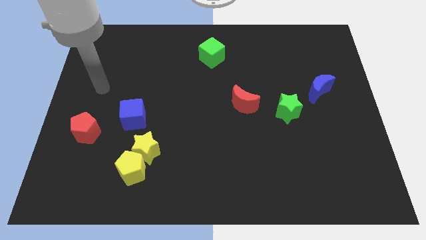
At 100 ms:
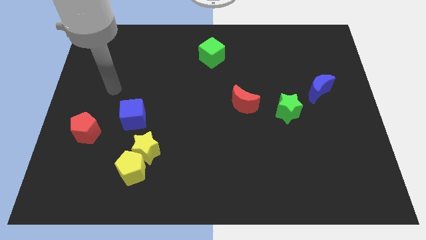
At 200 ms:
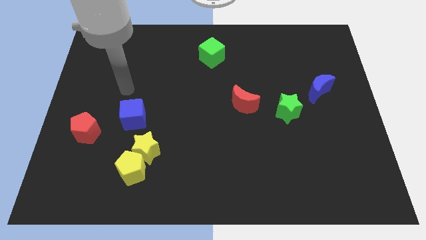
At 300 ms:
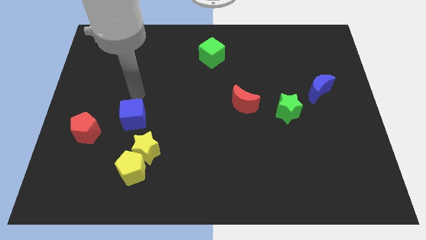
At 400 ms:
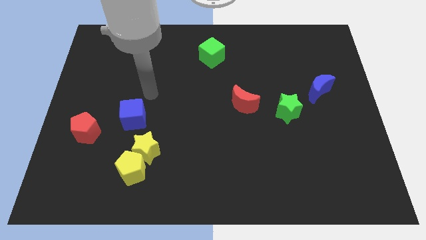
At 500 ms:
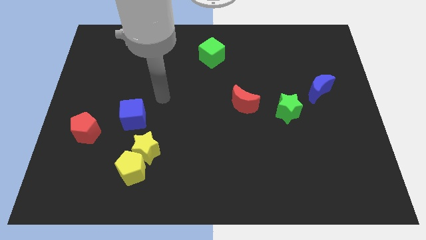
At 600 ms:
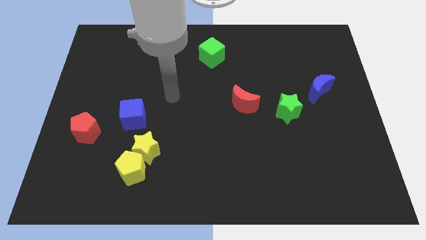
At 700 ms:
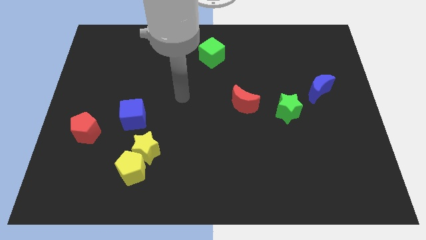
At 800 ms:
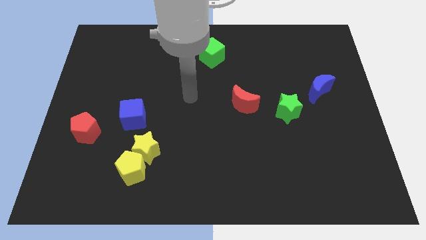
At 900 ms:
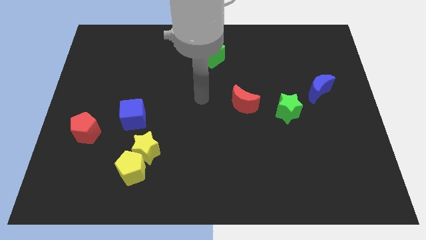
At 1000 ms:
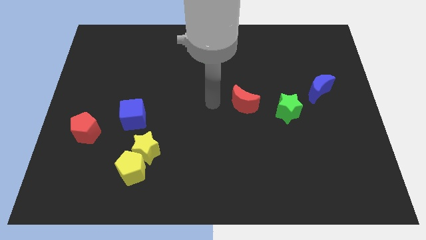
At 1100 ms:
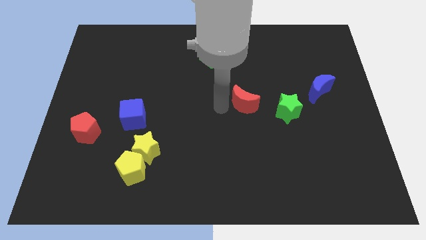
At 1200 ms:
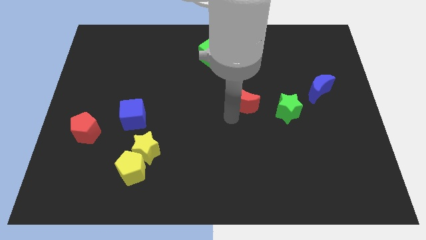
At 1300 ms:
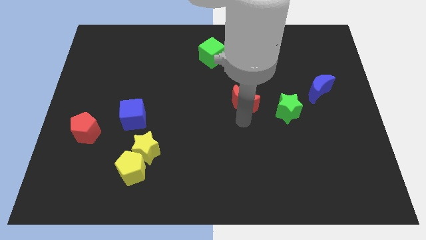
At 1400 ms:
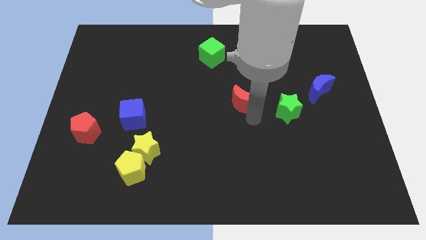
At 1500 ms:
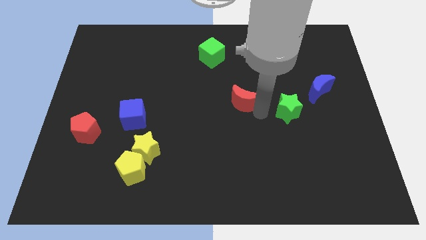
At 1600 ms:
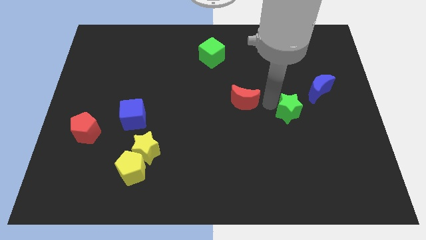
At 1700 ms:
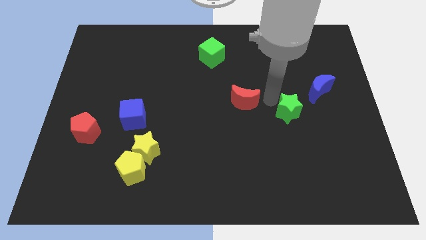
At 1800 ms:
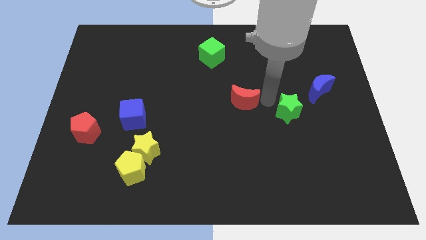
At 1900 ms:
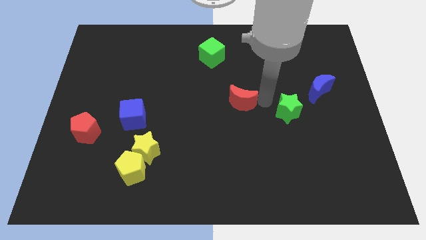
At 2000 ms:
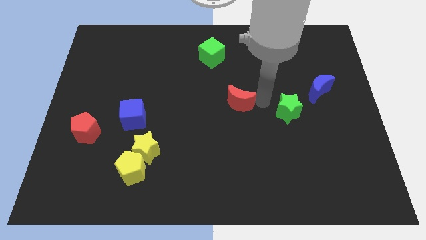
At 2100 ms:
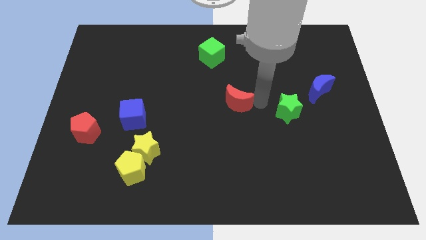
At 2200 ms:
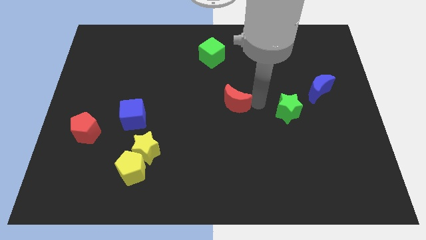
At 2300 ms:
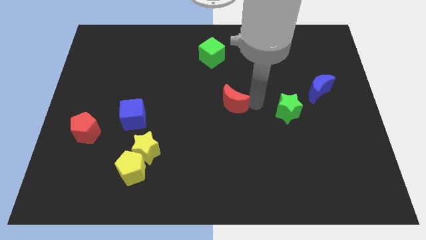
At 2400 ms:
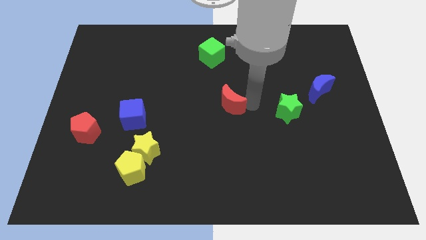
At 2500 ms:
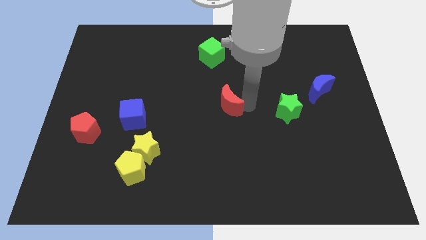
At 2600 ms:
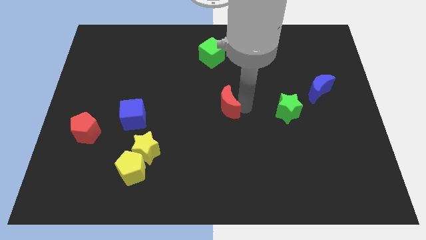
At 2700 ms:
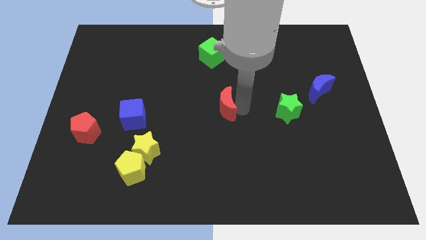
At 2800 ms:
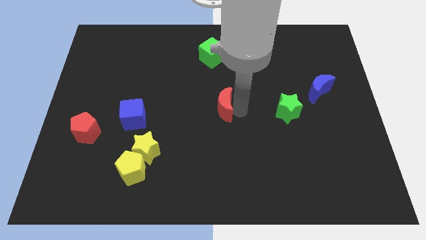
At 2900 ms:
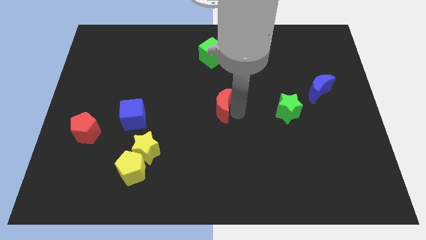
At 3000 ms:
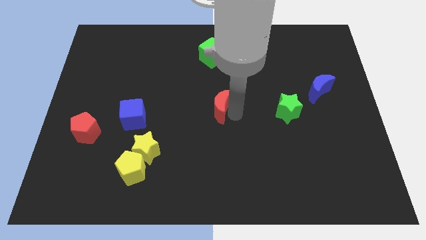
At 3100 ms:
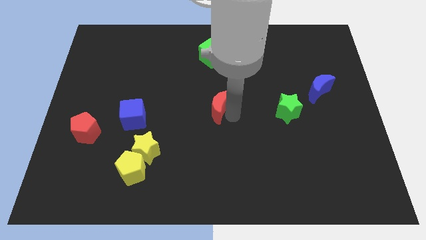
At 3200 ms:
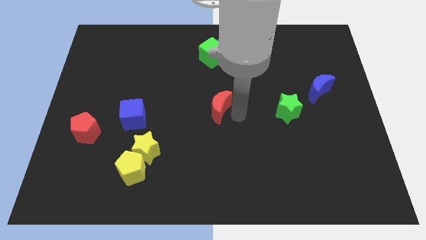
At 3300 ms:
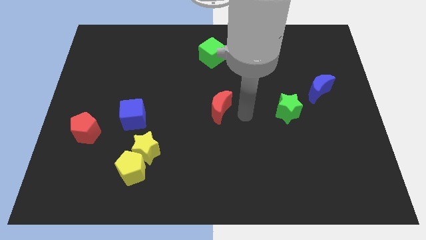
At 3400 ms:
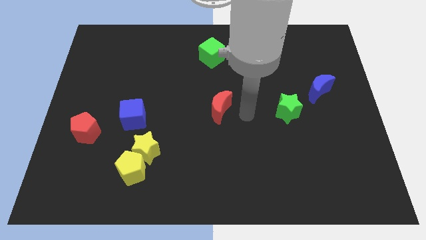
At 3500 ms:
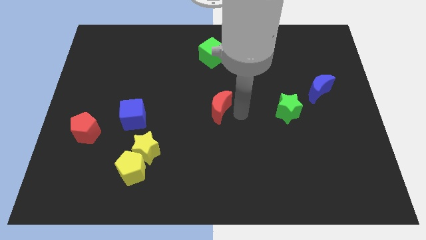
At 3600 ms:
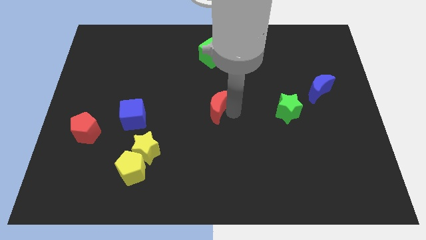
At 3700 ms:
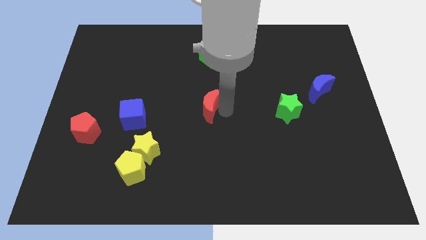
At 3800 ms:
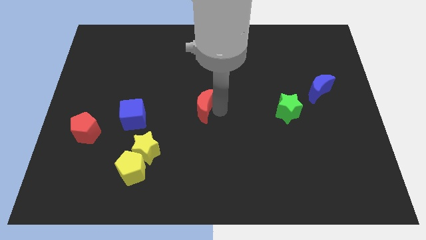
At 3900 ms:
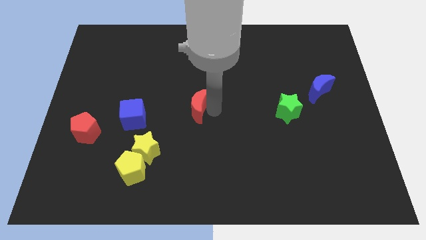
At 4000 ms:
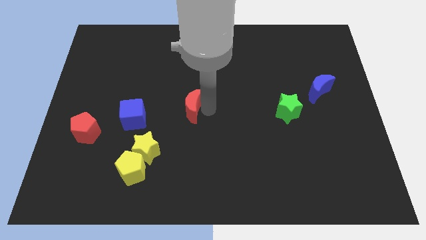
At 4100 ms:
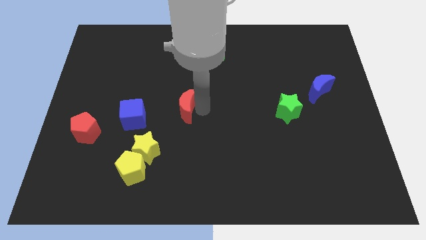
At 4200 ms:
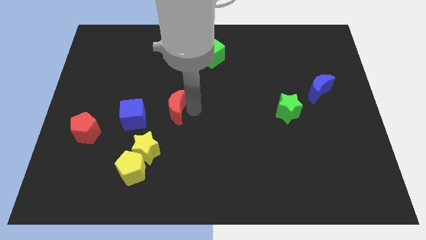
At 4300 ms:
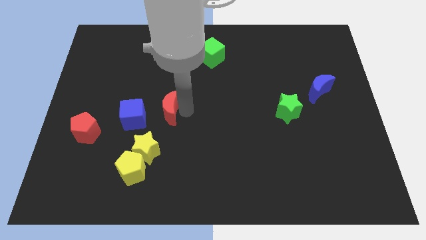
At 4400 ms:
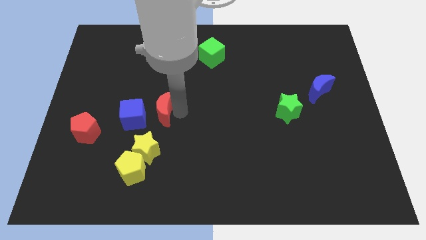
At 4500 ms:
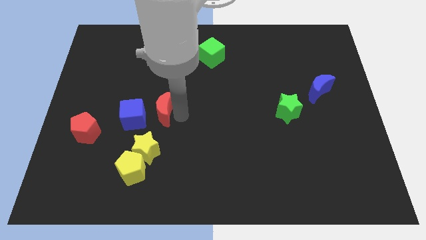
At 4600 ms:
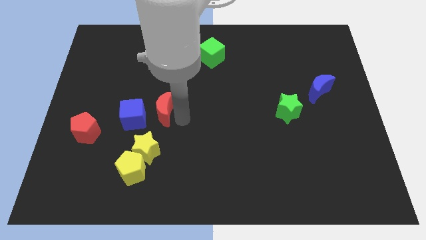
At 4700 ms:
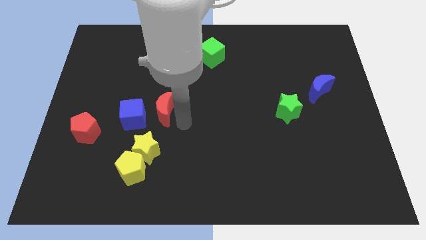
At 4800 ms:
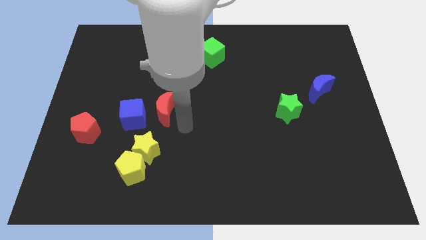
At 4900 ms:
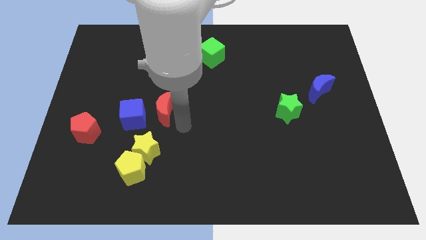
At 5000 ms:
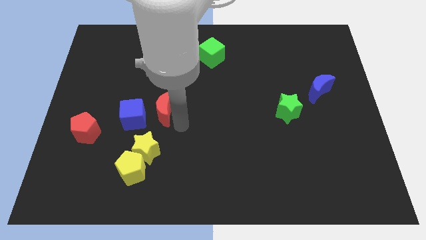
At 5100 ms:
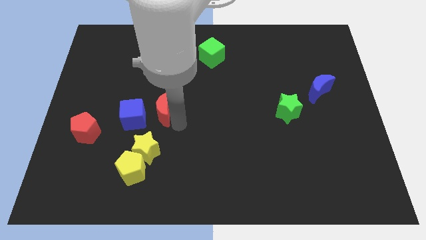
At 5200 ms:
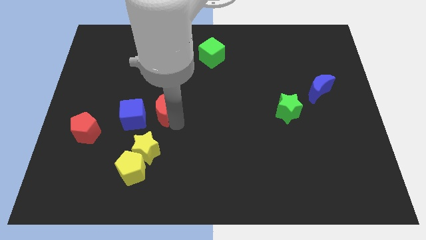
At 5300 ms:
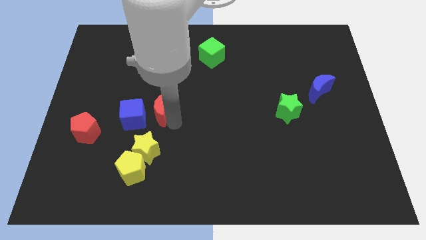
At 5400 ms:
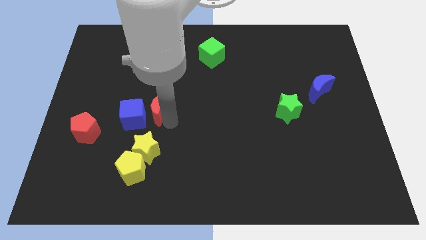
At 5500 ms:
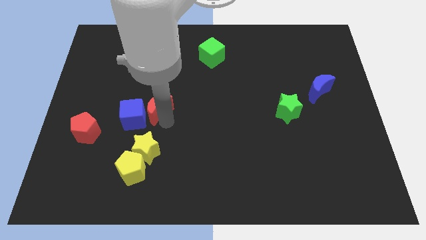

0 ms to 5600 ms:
slide the red moon to the left

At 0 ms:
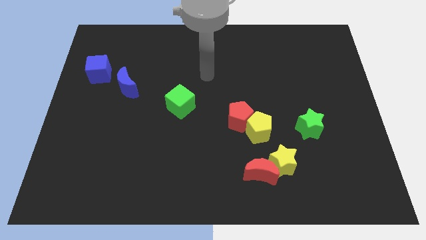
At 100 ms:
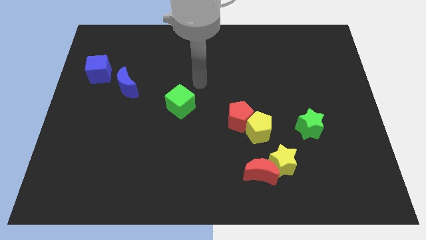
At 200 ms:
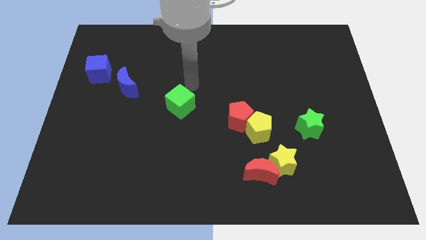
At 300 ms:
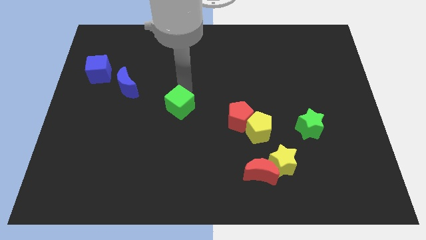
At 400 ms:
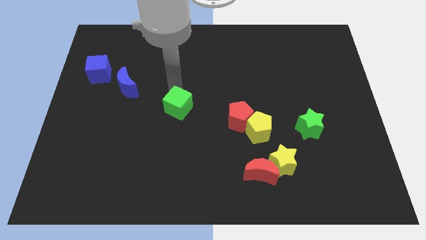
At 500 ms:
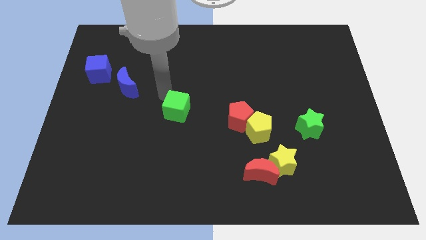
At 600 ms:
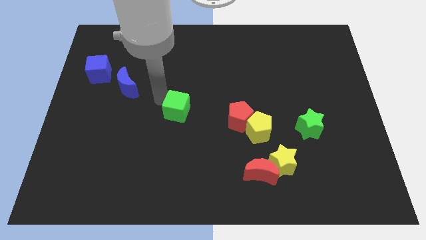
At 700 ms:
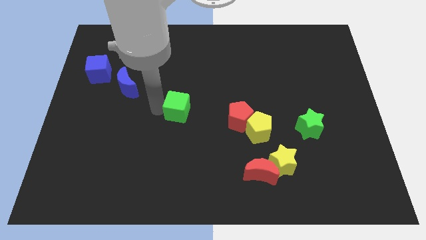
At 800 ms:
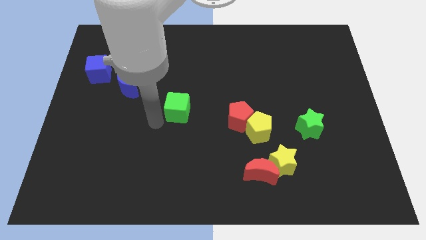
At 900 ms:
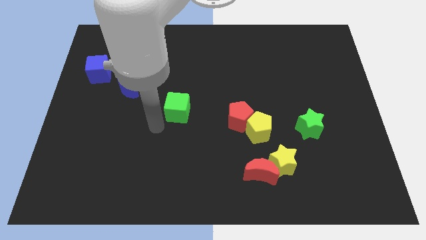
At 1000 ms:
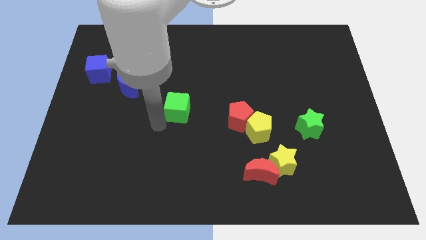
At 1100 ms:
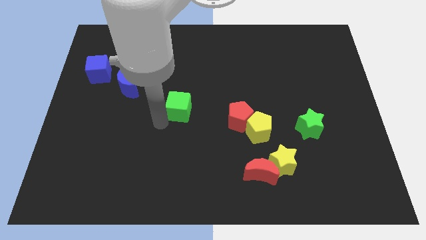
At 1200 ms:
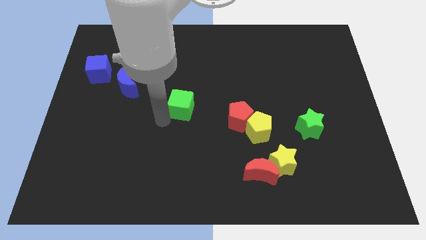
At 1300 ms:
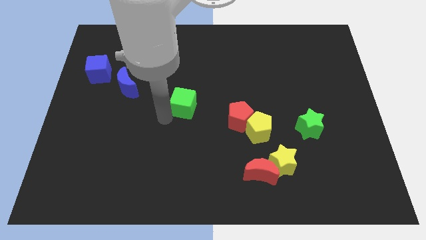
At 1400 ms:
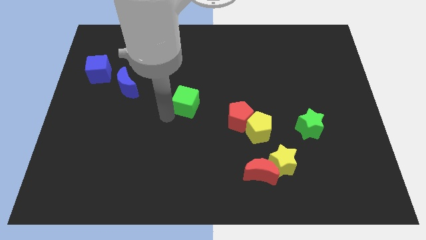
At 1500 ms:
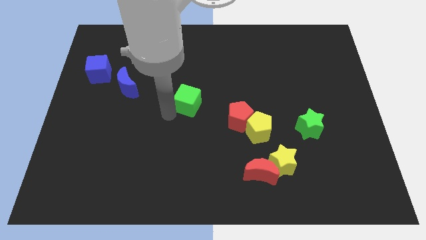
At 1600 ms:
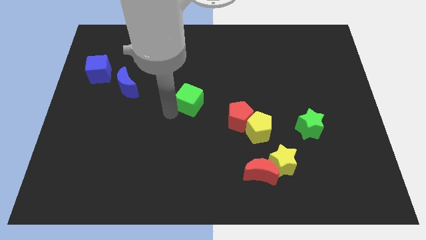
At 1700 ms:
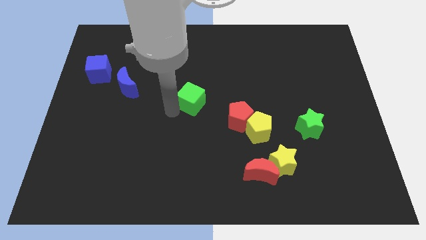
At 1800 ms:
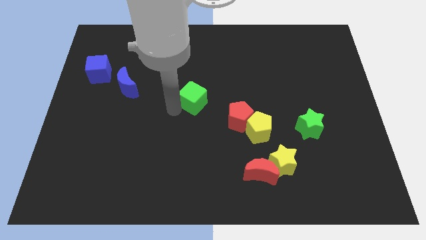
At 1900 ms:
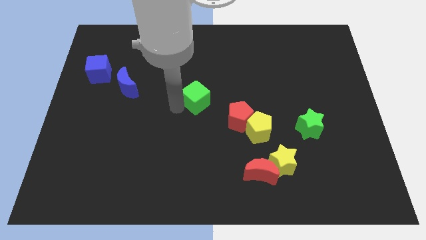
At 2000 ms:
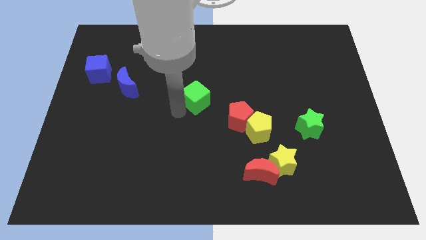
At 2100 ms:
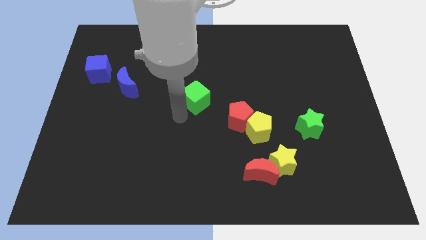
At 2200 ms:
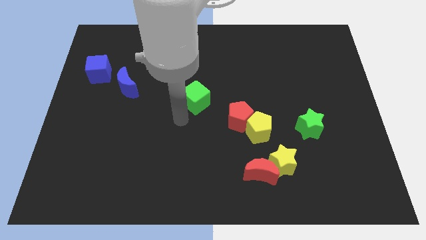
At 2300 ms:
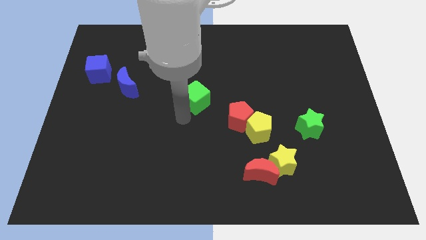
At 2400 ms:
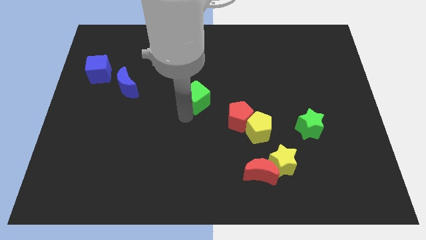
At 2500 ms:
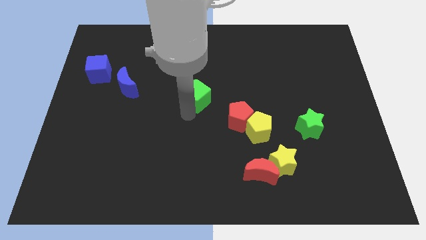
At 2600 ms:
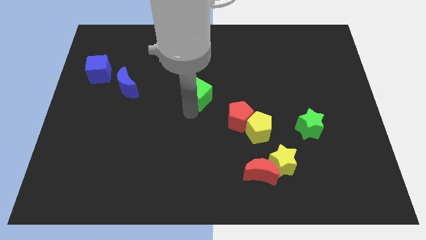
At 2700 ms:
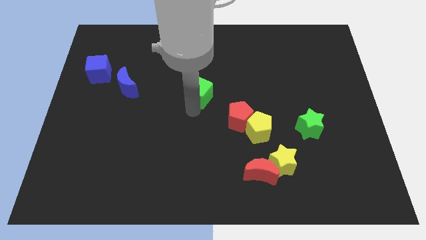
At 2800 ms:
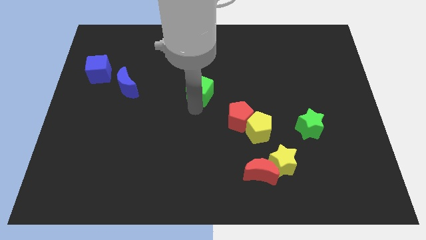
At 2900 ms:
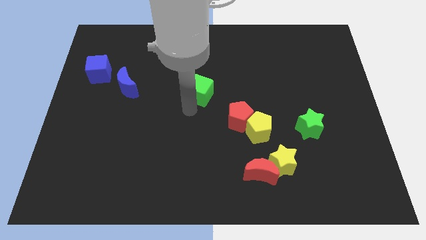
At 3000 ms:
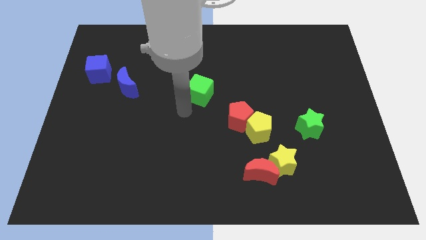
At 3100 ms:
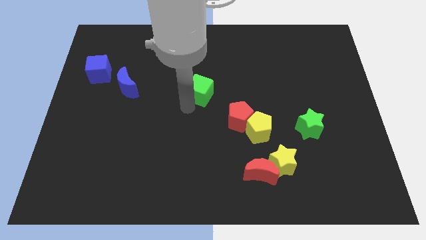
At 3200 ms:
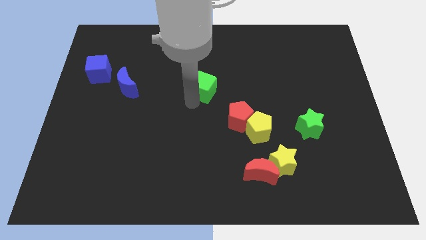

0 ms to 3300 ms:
slightly push the green cube up and to the right
